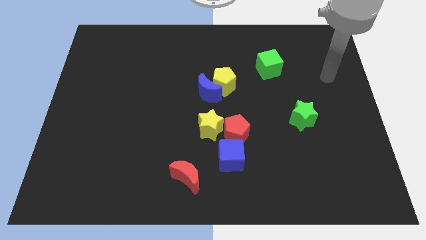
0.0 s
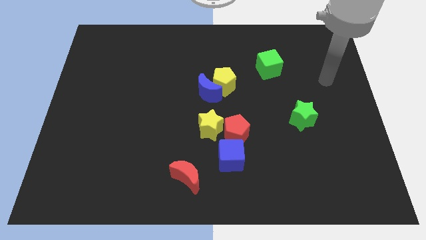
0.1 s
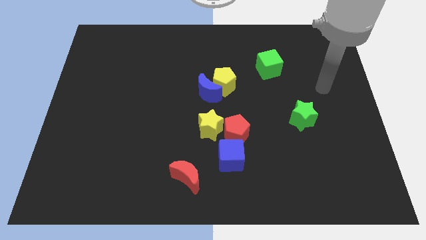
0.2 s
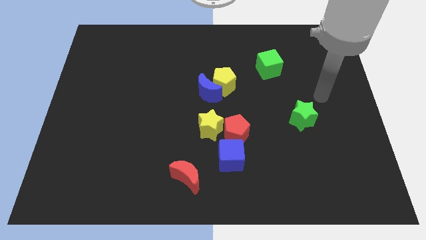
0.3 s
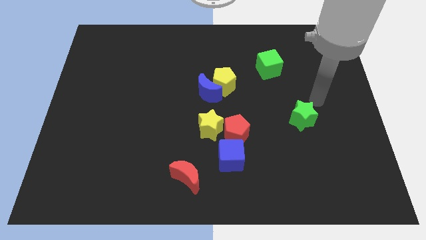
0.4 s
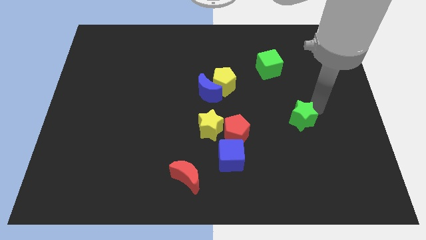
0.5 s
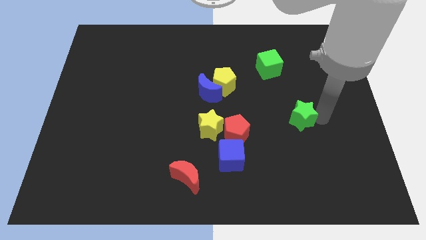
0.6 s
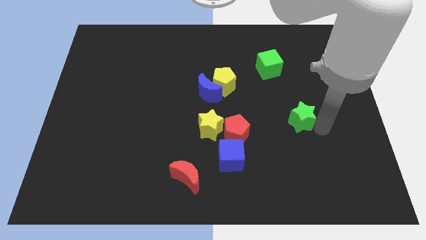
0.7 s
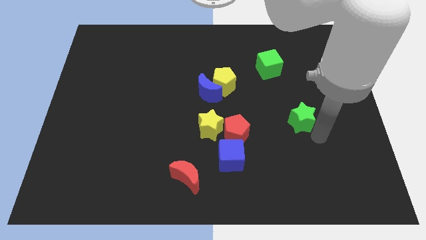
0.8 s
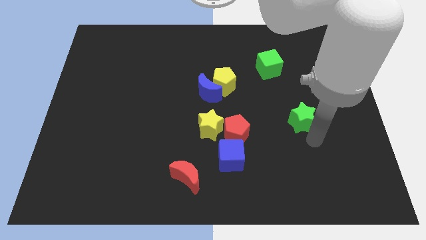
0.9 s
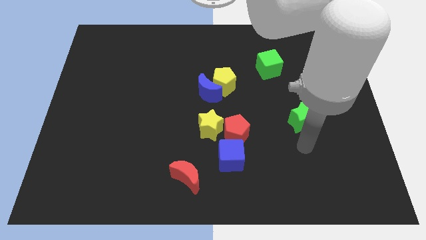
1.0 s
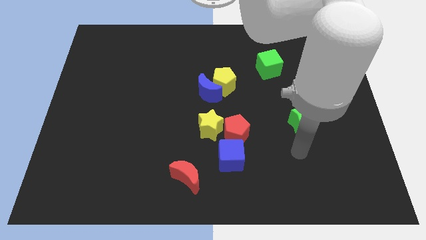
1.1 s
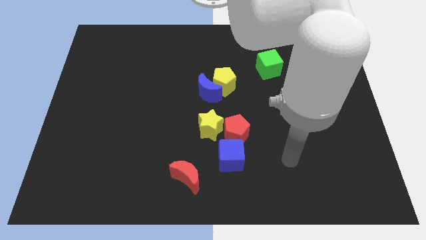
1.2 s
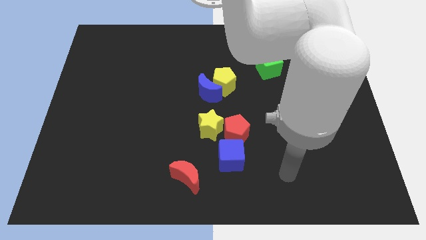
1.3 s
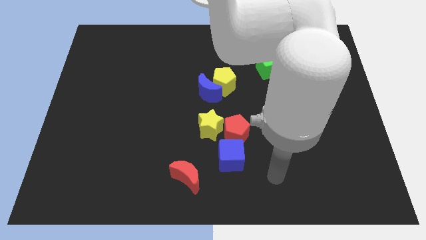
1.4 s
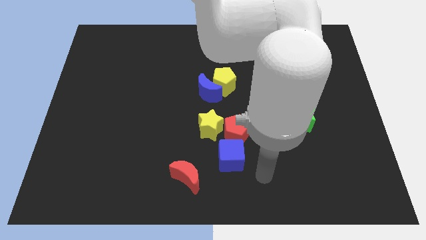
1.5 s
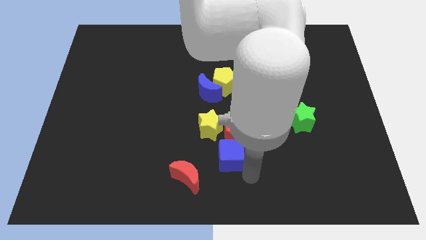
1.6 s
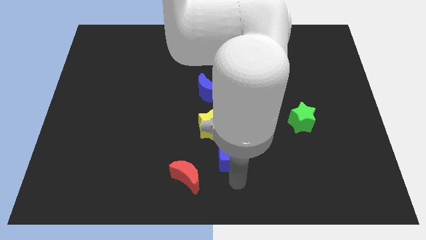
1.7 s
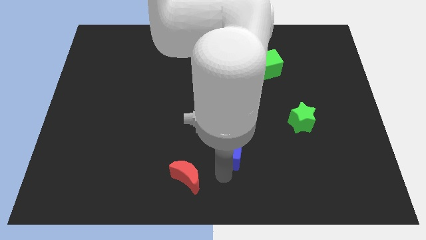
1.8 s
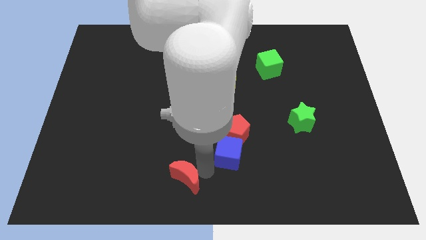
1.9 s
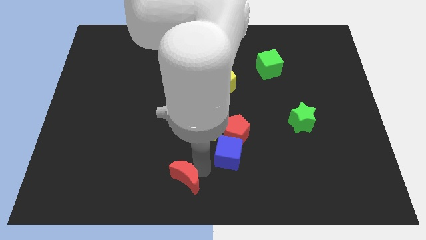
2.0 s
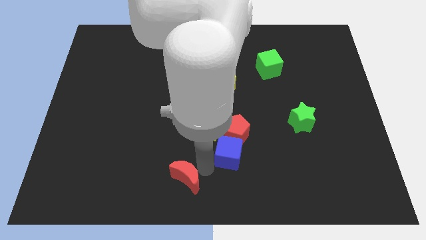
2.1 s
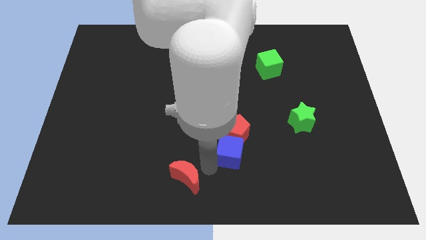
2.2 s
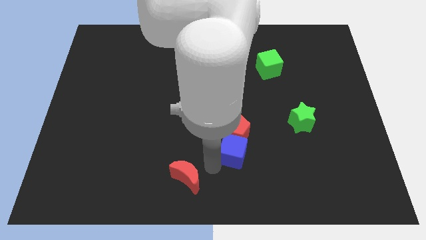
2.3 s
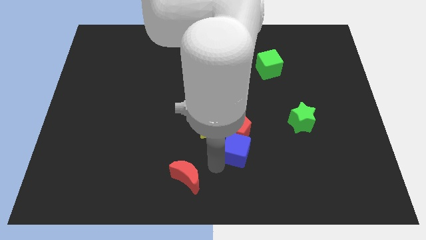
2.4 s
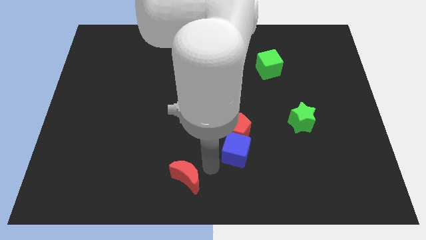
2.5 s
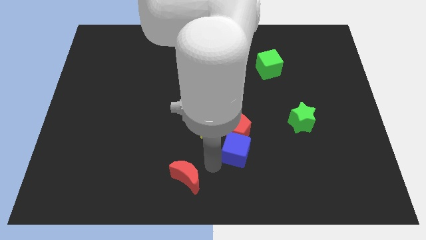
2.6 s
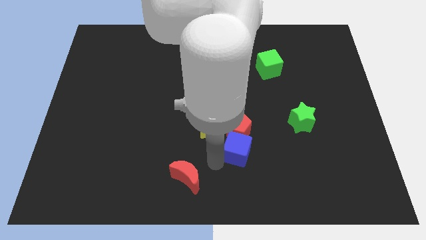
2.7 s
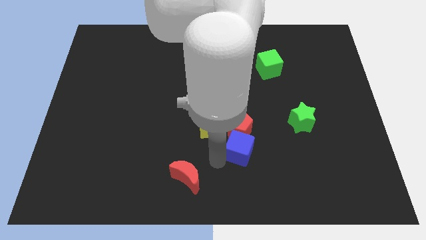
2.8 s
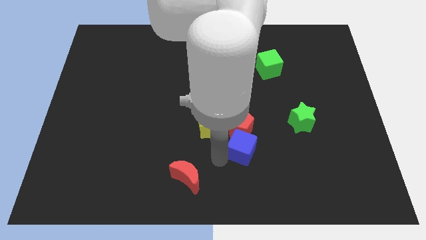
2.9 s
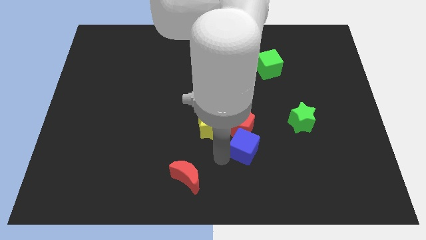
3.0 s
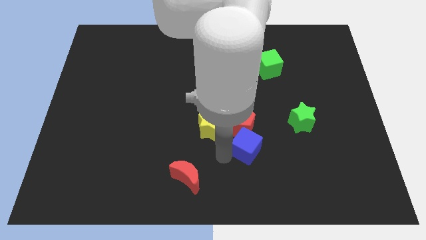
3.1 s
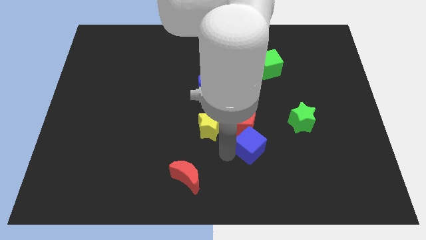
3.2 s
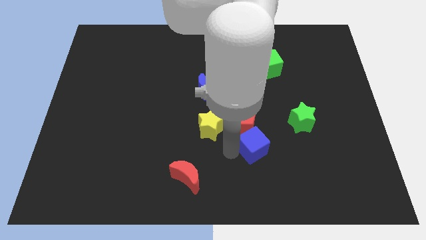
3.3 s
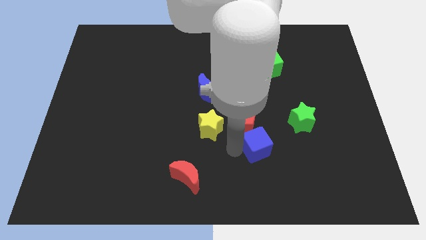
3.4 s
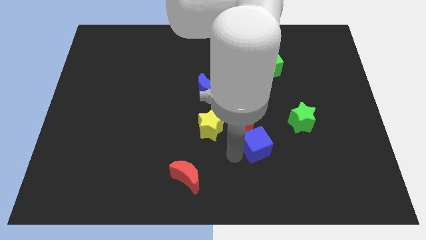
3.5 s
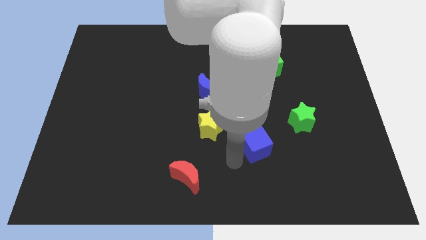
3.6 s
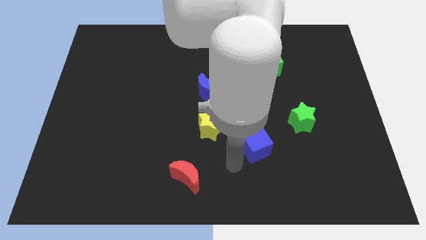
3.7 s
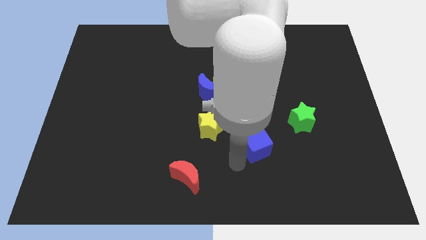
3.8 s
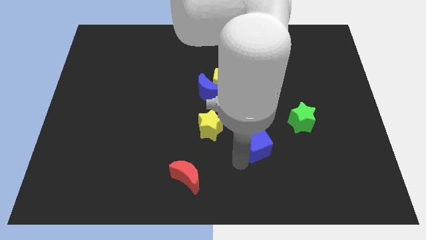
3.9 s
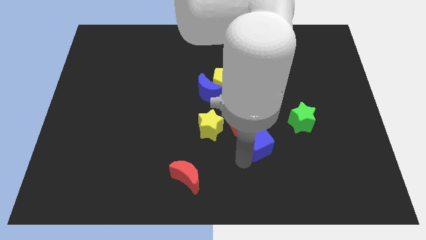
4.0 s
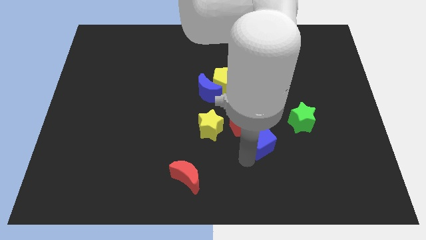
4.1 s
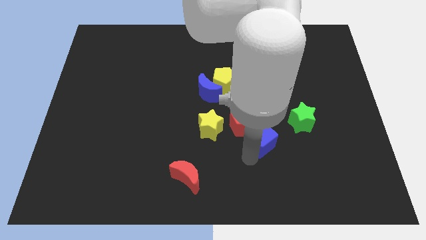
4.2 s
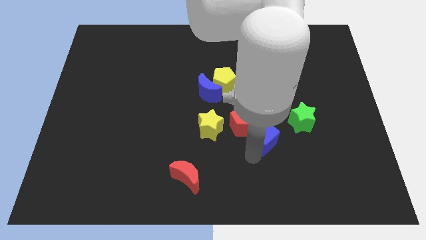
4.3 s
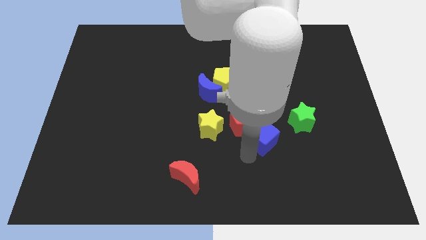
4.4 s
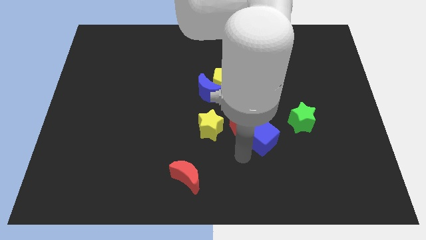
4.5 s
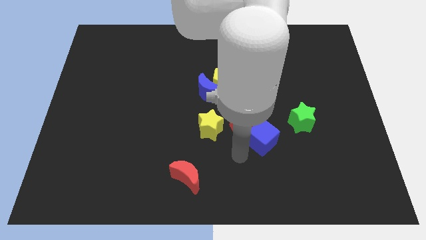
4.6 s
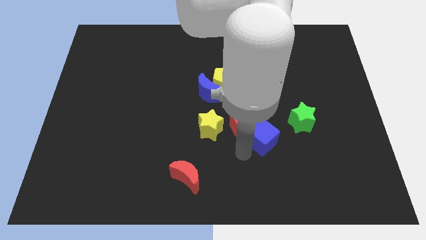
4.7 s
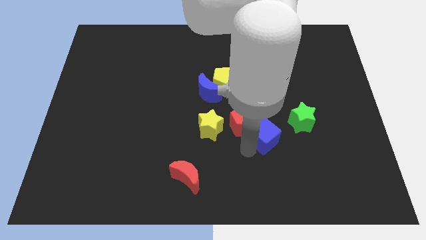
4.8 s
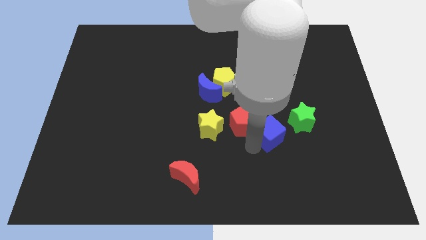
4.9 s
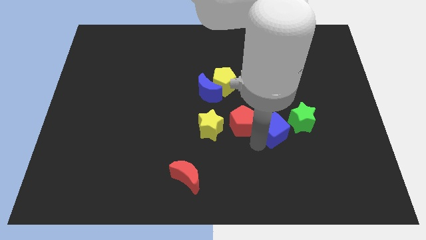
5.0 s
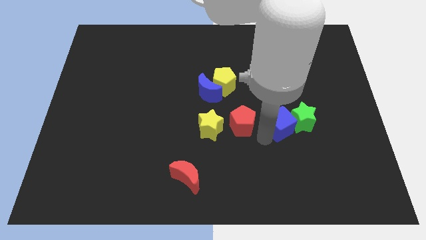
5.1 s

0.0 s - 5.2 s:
move the blue cube to the green star

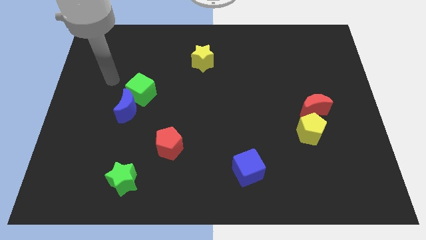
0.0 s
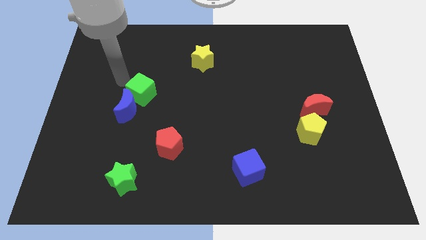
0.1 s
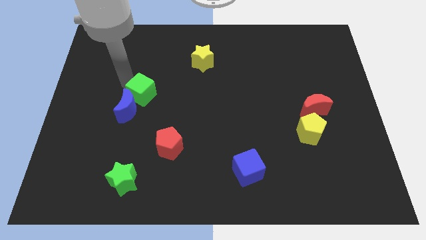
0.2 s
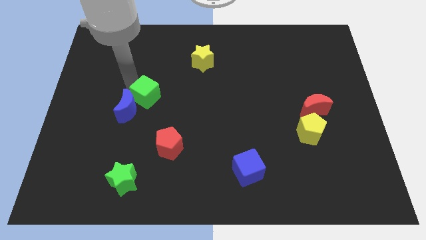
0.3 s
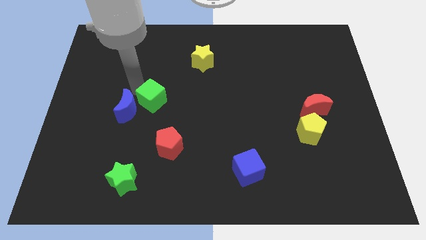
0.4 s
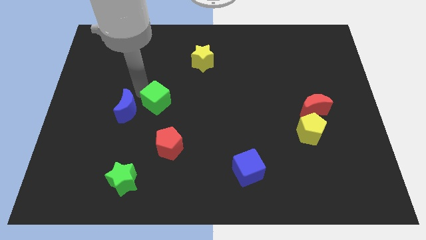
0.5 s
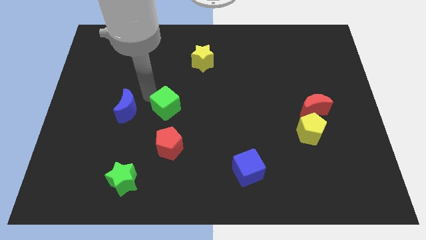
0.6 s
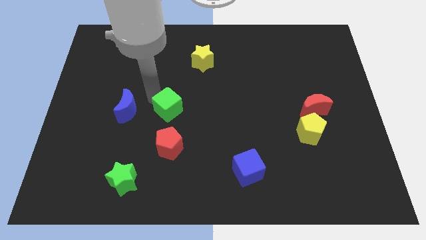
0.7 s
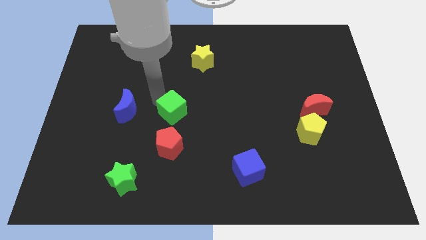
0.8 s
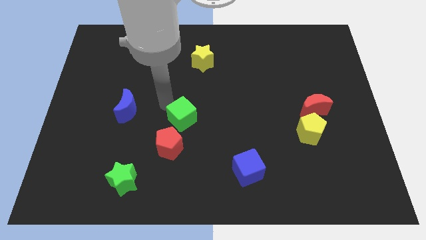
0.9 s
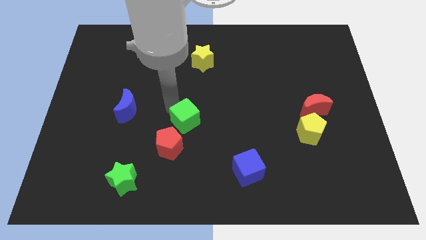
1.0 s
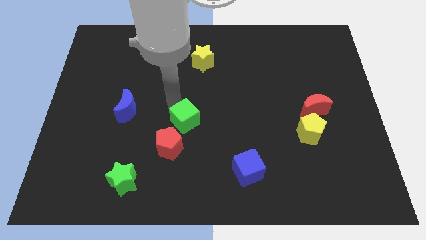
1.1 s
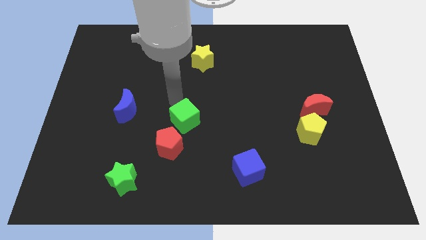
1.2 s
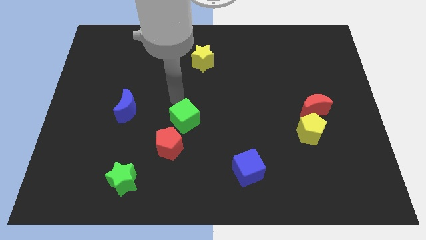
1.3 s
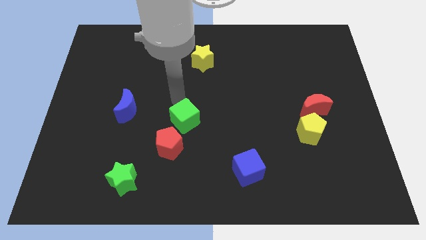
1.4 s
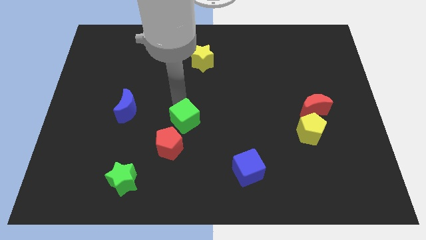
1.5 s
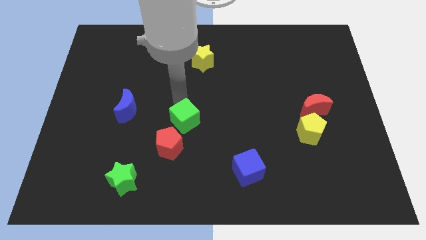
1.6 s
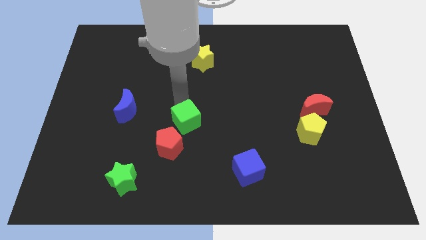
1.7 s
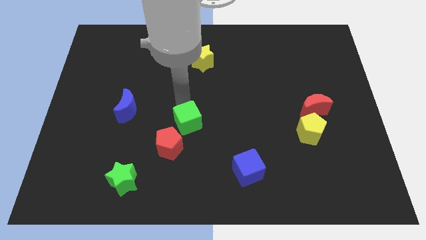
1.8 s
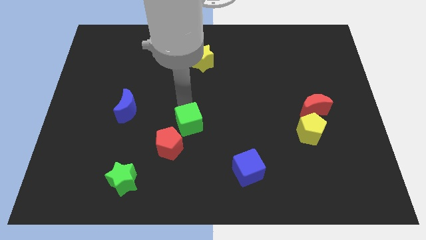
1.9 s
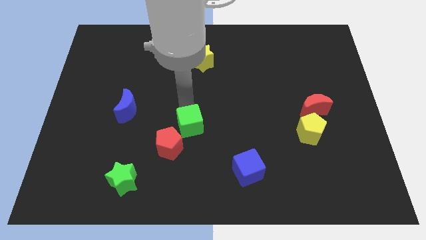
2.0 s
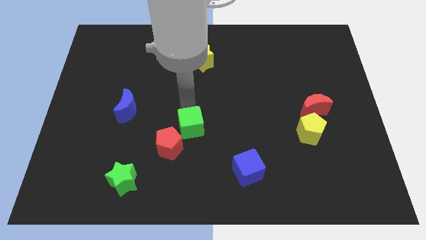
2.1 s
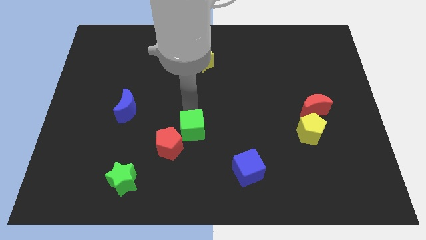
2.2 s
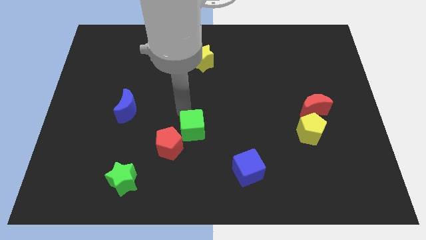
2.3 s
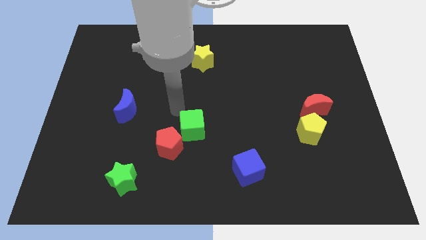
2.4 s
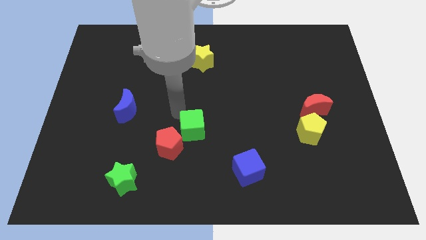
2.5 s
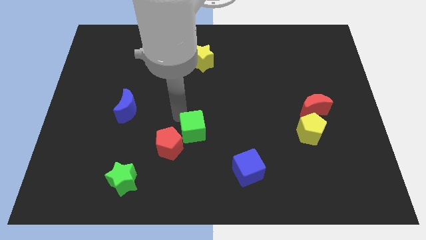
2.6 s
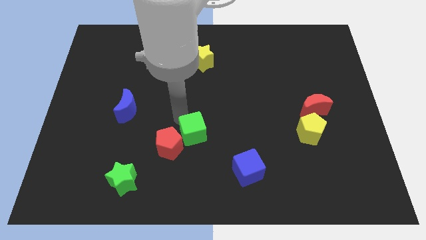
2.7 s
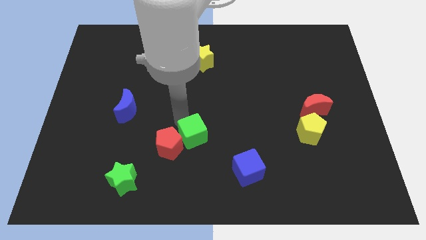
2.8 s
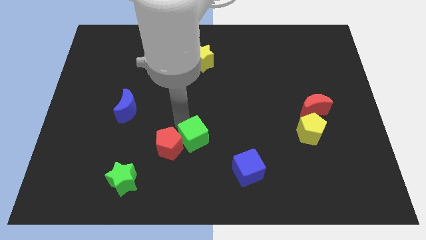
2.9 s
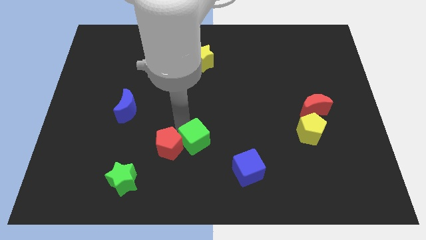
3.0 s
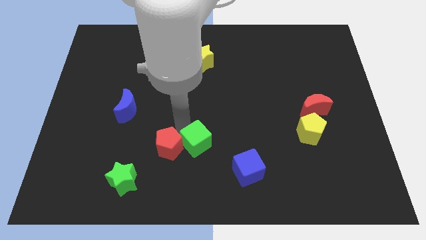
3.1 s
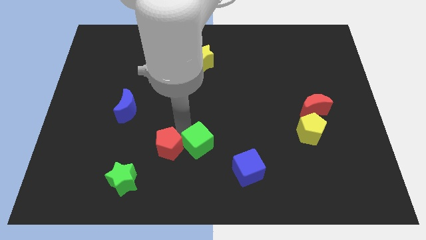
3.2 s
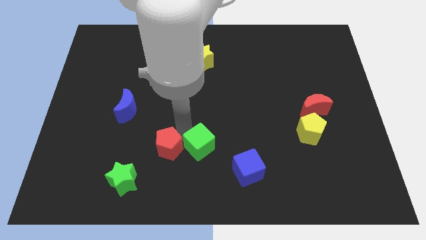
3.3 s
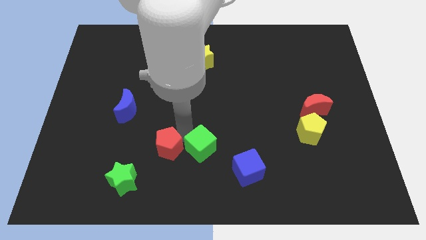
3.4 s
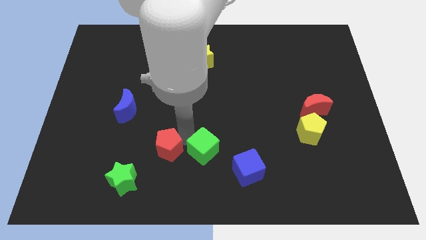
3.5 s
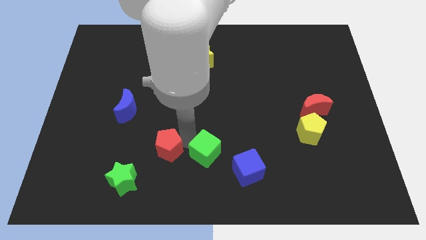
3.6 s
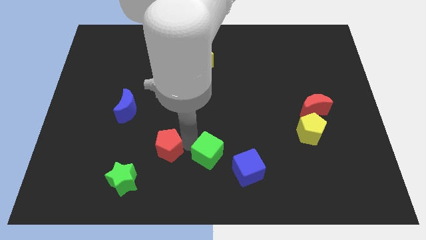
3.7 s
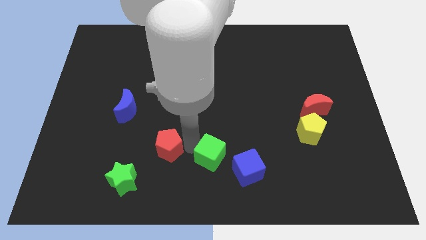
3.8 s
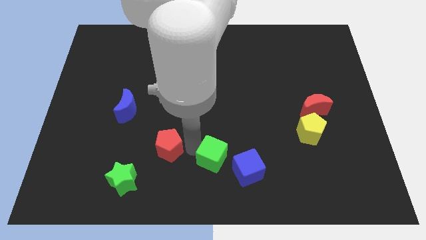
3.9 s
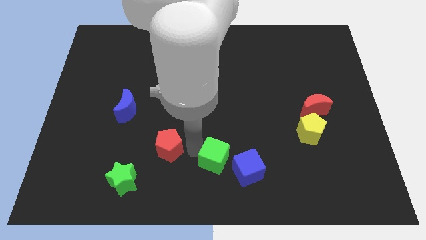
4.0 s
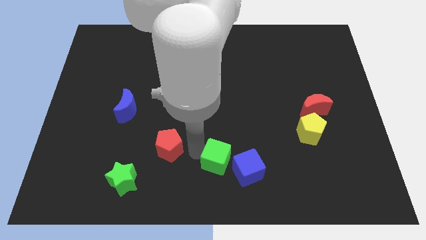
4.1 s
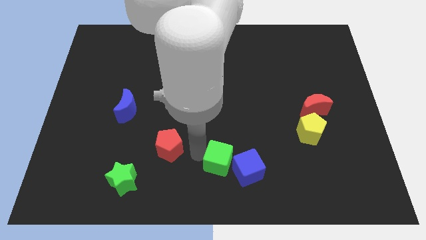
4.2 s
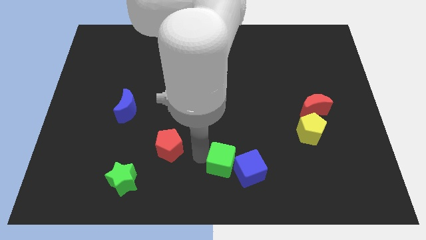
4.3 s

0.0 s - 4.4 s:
put the green cube to the blue cube
